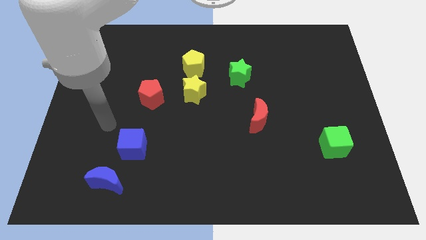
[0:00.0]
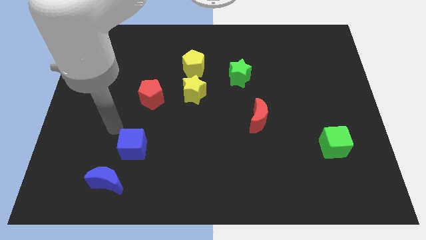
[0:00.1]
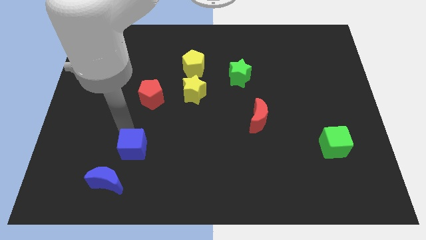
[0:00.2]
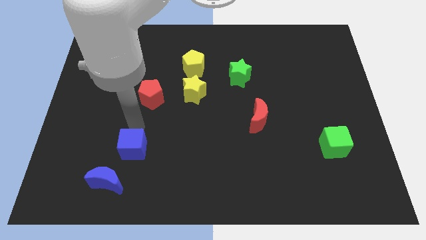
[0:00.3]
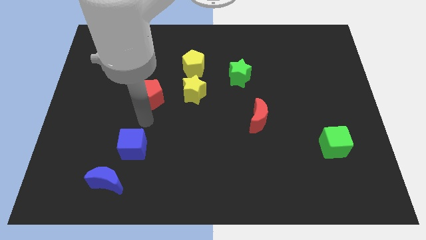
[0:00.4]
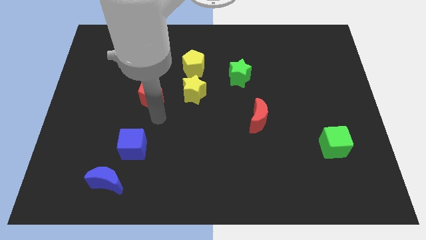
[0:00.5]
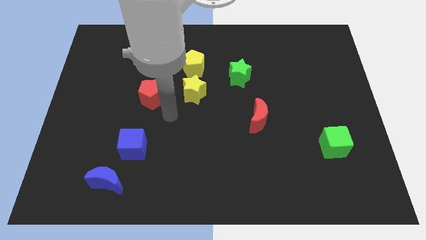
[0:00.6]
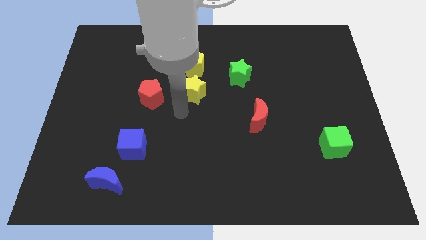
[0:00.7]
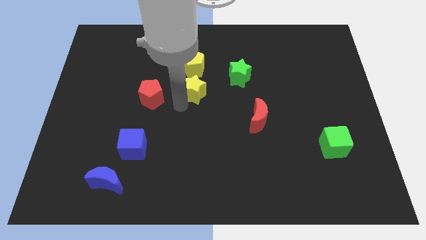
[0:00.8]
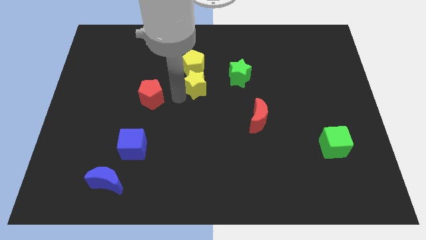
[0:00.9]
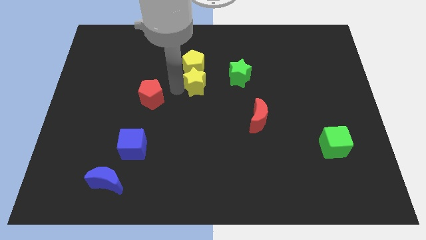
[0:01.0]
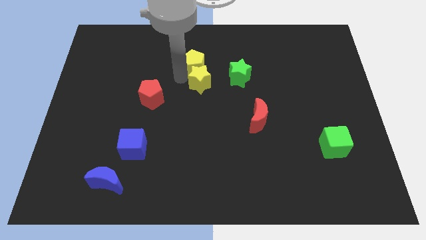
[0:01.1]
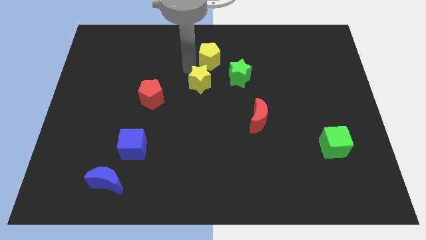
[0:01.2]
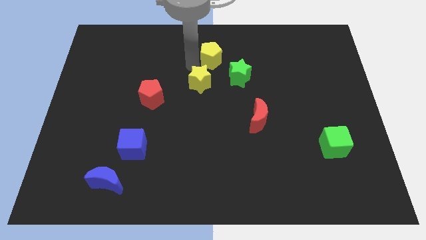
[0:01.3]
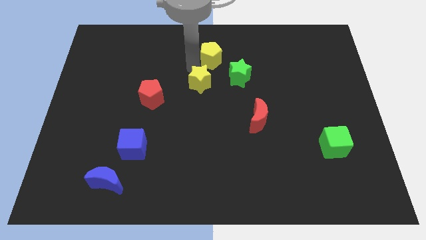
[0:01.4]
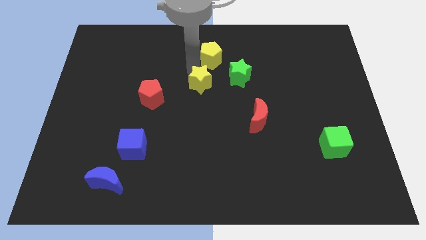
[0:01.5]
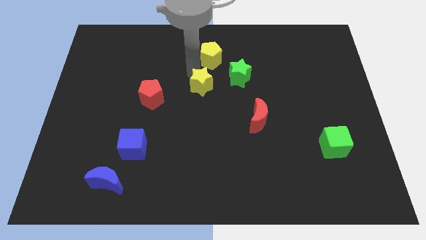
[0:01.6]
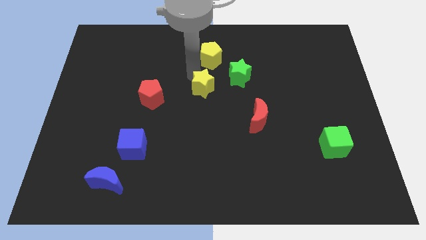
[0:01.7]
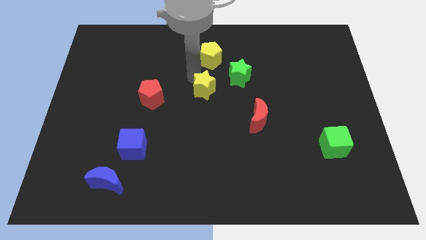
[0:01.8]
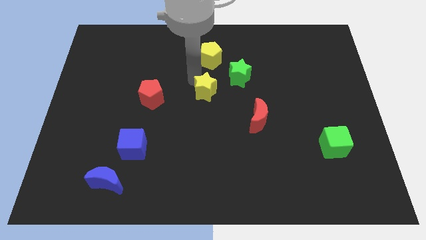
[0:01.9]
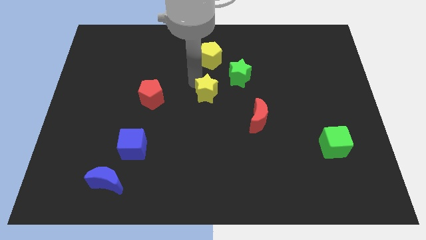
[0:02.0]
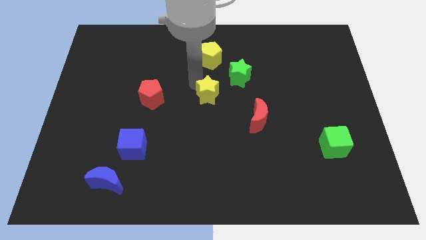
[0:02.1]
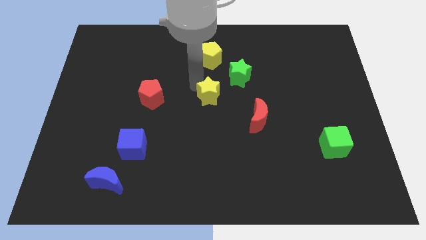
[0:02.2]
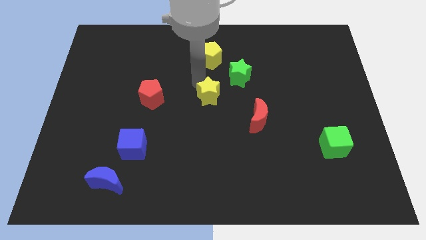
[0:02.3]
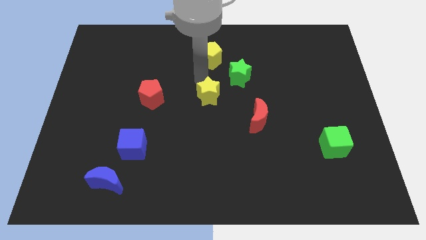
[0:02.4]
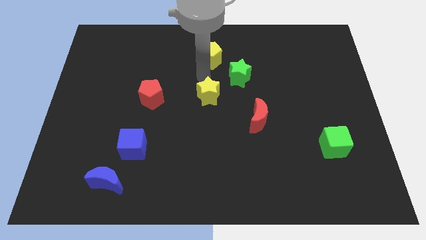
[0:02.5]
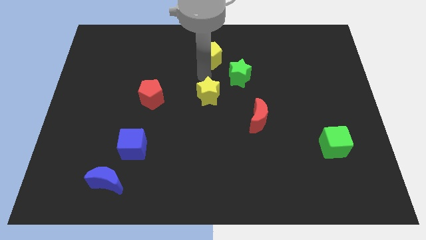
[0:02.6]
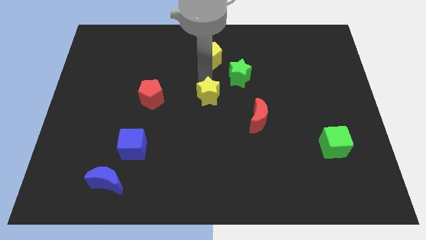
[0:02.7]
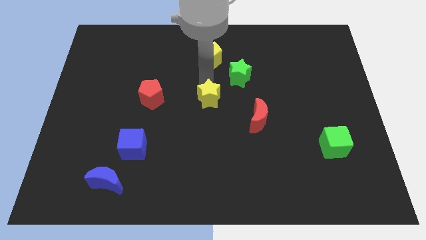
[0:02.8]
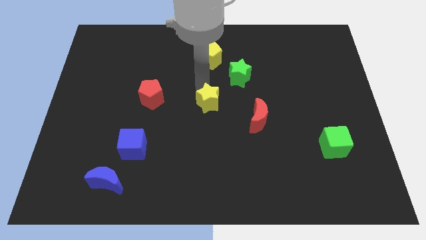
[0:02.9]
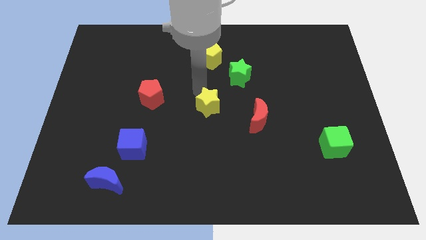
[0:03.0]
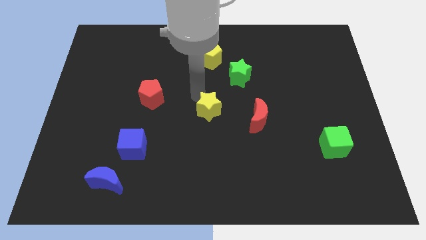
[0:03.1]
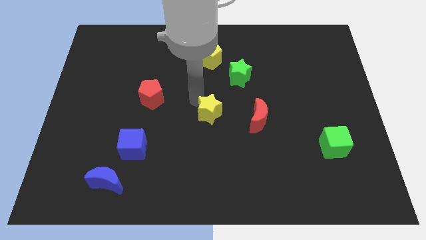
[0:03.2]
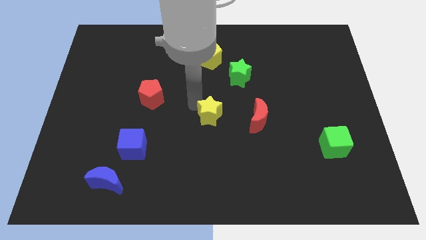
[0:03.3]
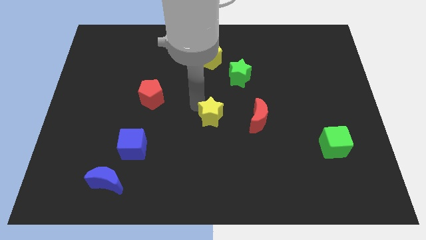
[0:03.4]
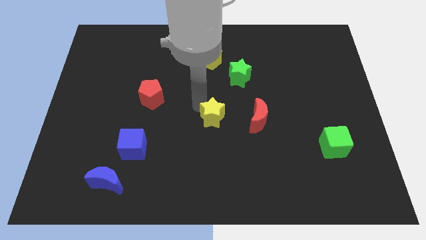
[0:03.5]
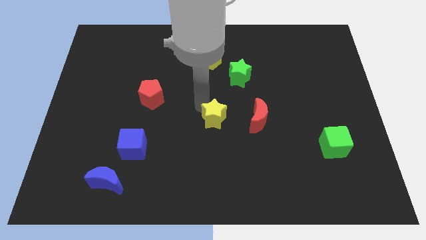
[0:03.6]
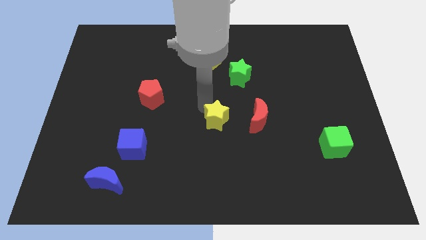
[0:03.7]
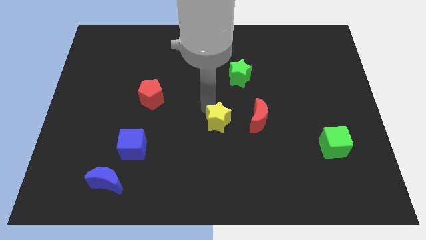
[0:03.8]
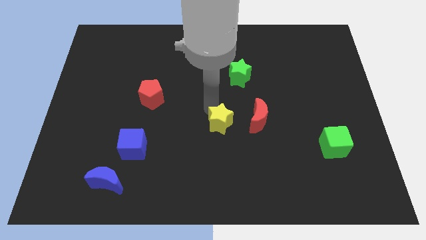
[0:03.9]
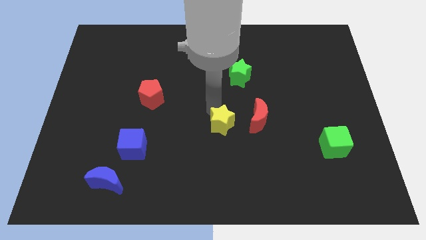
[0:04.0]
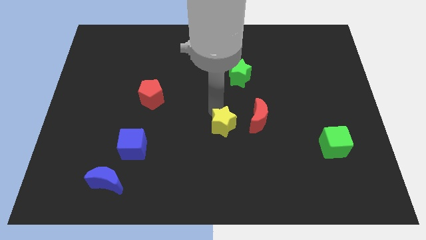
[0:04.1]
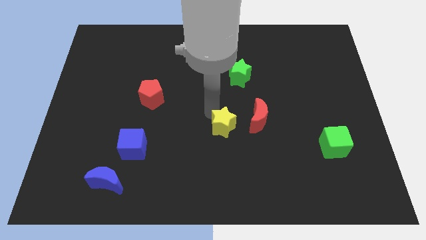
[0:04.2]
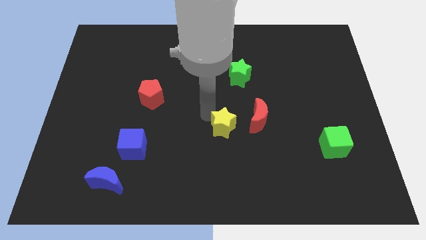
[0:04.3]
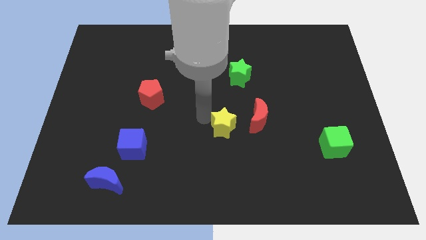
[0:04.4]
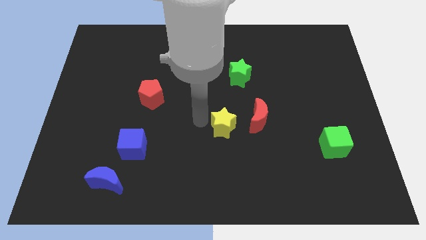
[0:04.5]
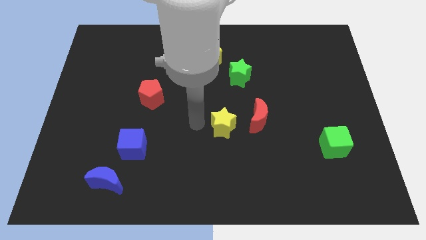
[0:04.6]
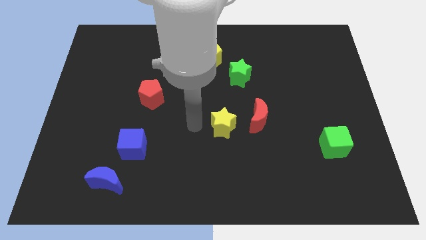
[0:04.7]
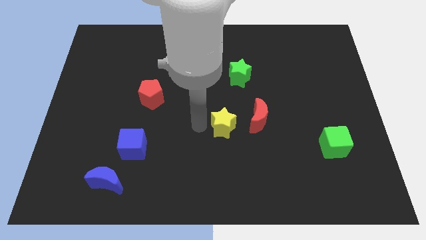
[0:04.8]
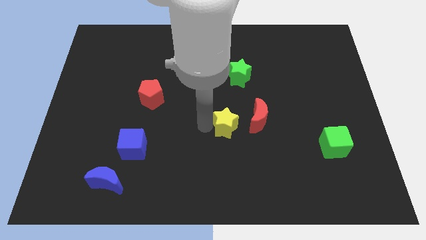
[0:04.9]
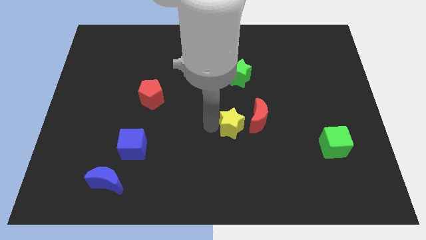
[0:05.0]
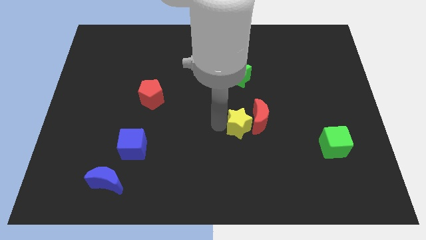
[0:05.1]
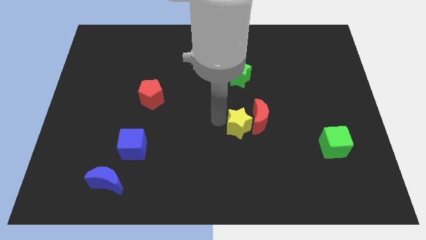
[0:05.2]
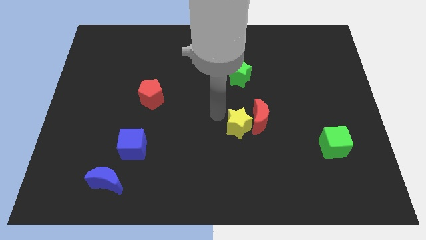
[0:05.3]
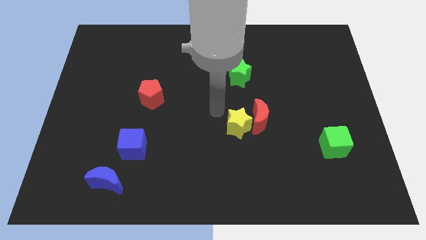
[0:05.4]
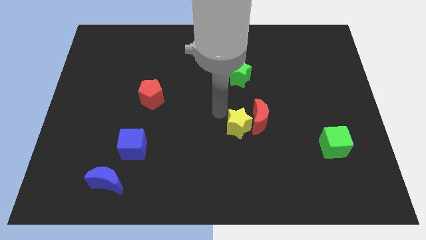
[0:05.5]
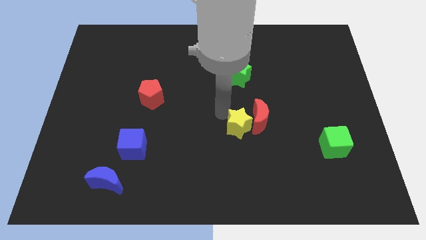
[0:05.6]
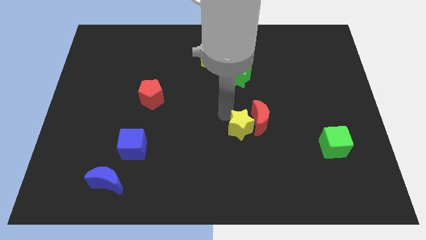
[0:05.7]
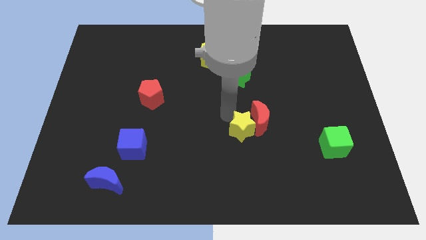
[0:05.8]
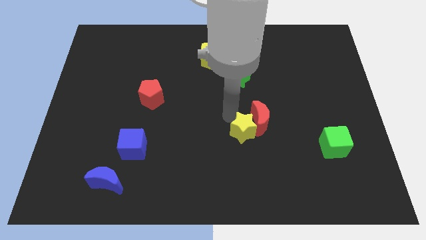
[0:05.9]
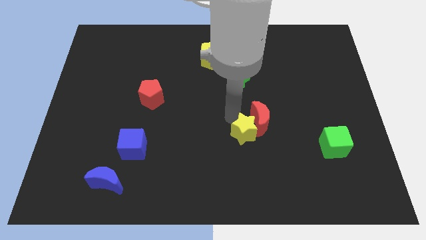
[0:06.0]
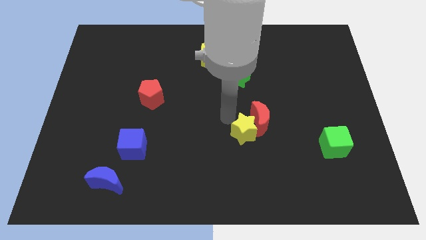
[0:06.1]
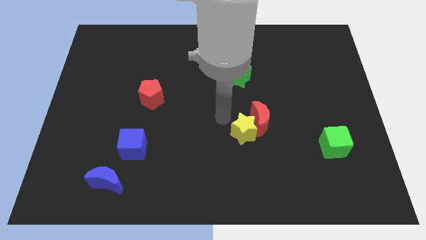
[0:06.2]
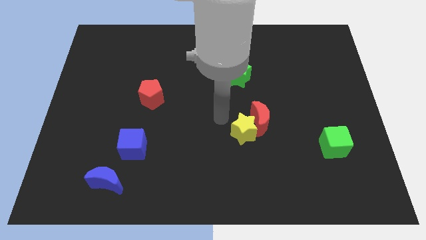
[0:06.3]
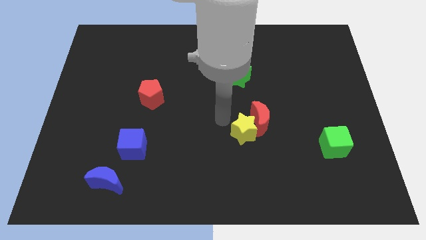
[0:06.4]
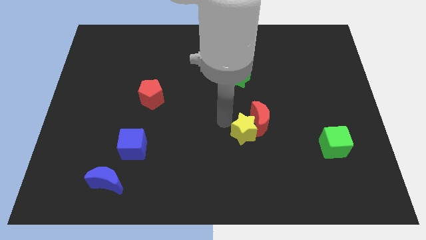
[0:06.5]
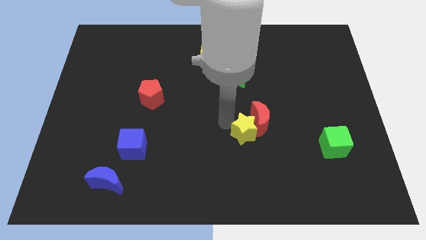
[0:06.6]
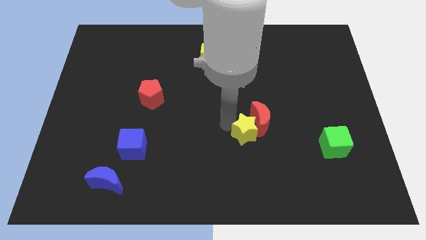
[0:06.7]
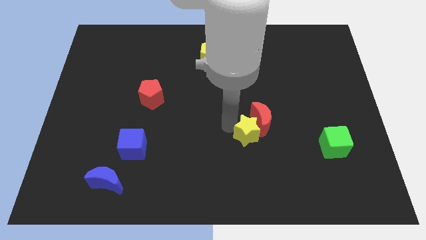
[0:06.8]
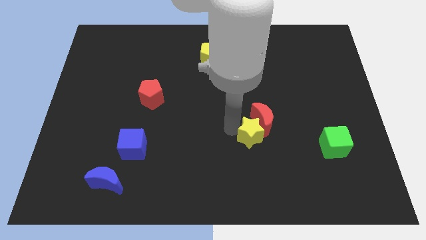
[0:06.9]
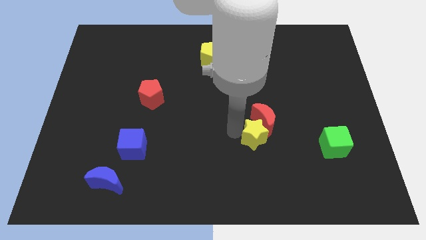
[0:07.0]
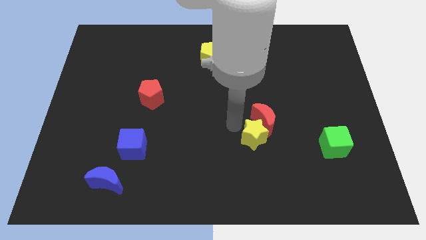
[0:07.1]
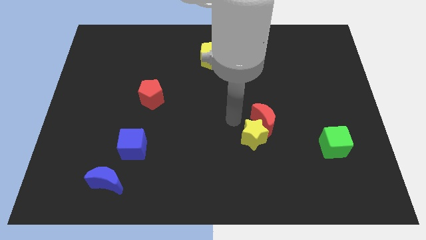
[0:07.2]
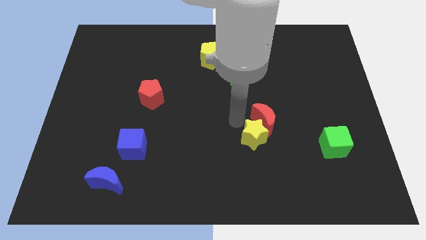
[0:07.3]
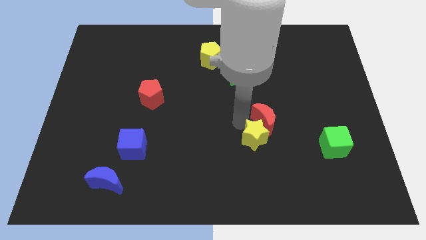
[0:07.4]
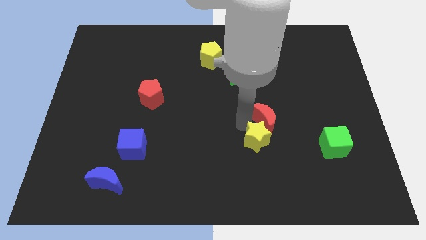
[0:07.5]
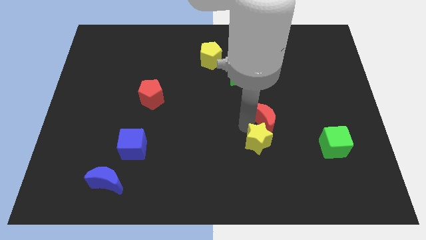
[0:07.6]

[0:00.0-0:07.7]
slide the yellow star down and to the right

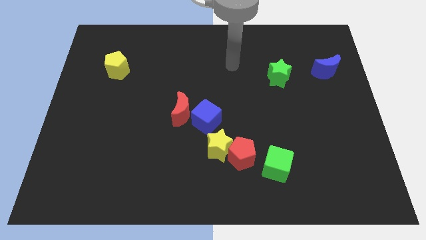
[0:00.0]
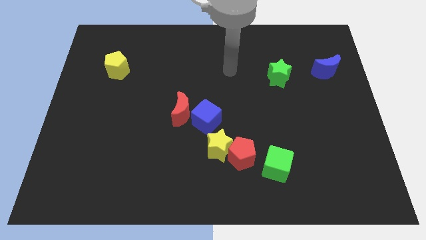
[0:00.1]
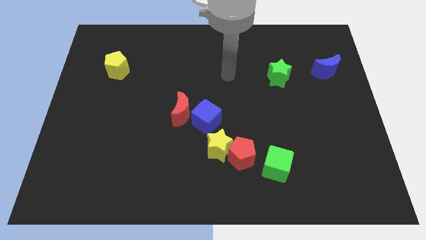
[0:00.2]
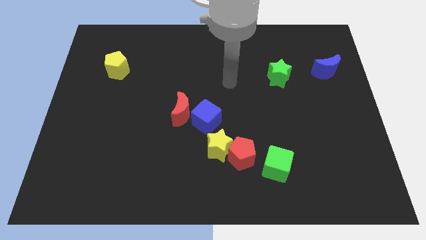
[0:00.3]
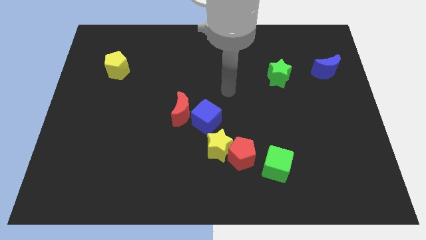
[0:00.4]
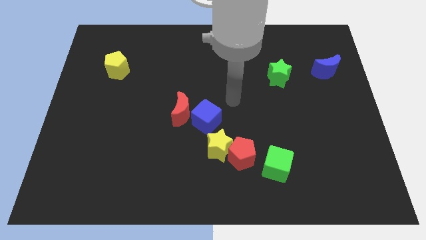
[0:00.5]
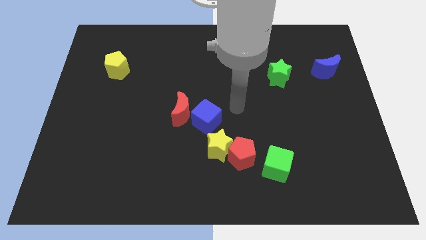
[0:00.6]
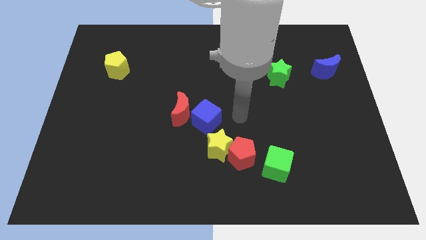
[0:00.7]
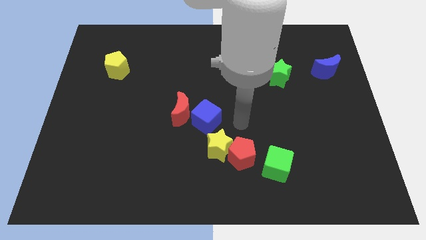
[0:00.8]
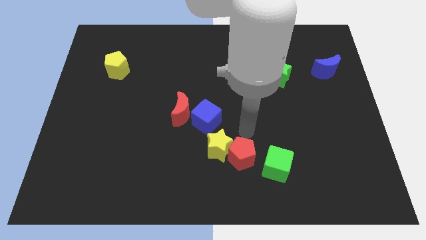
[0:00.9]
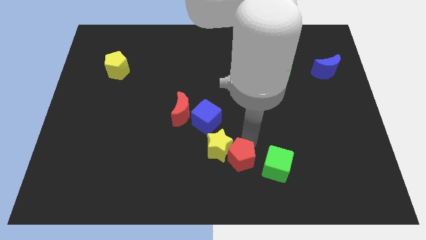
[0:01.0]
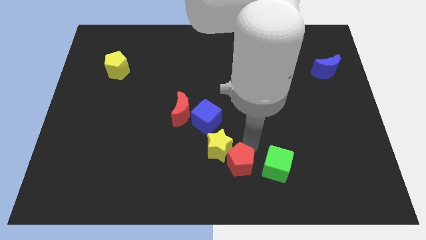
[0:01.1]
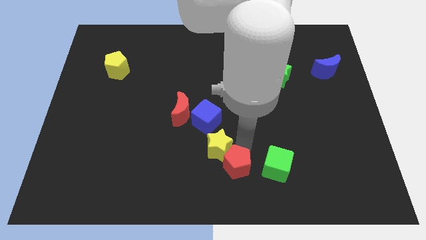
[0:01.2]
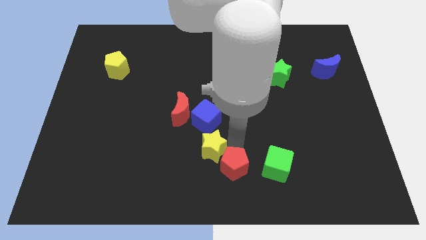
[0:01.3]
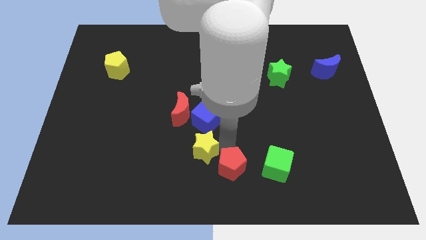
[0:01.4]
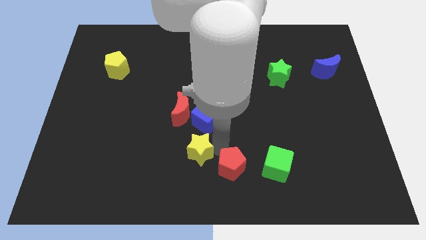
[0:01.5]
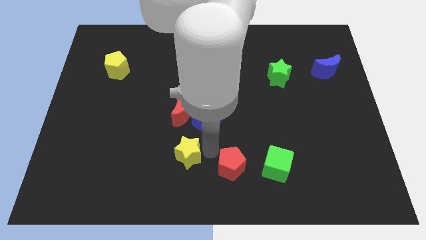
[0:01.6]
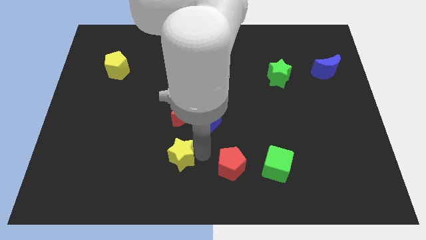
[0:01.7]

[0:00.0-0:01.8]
move the yellow star to the left somewhat
